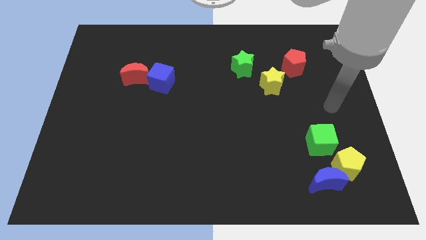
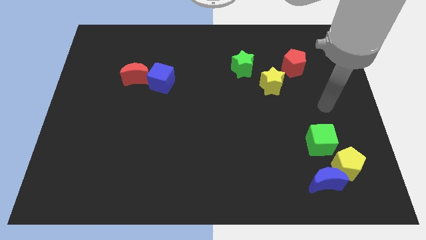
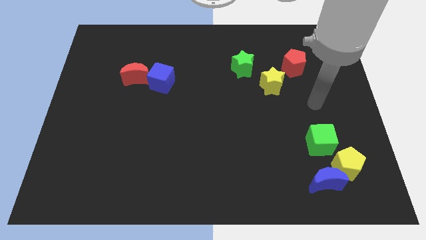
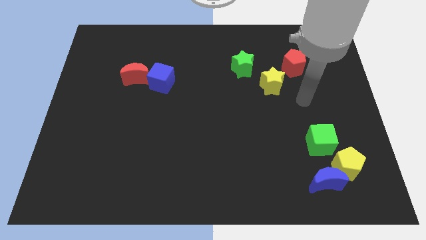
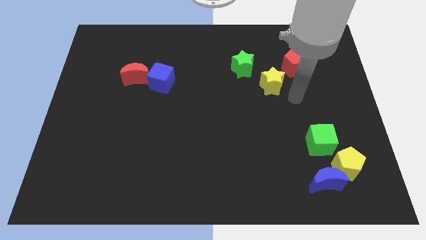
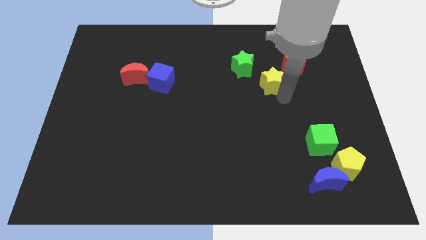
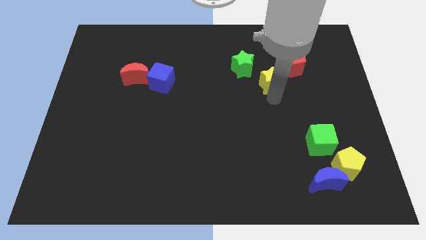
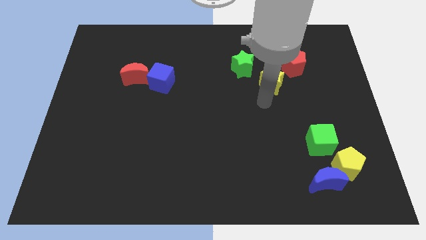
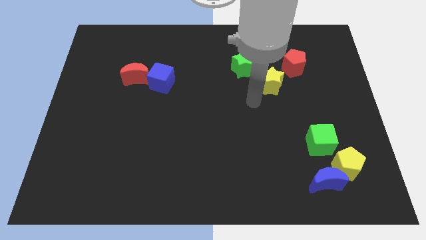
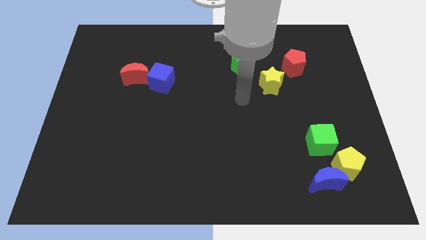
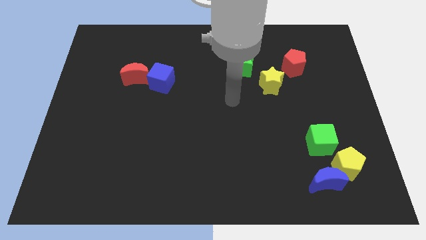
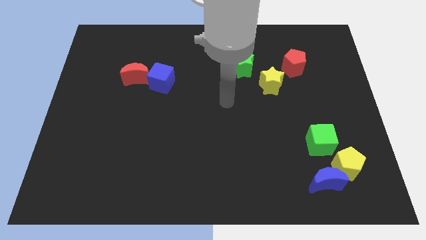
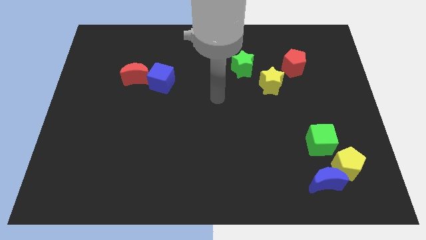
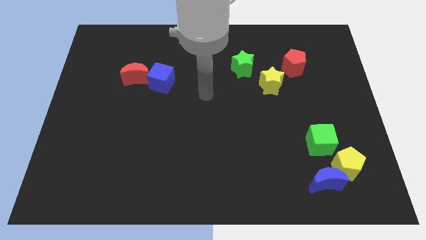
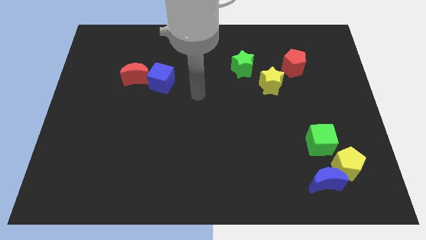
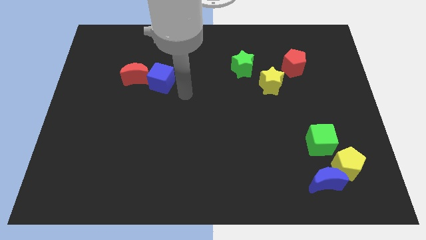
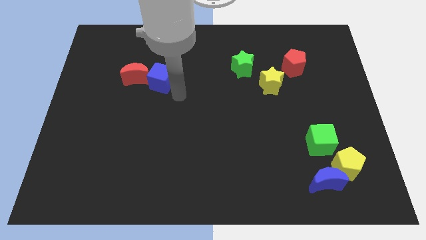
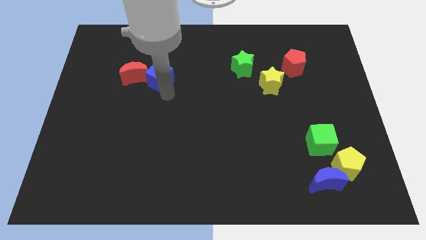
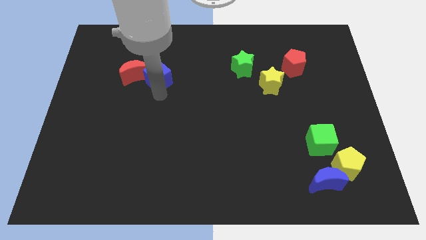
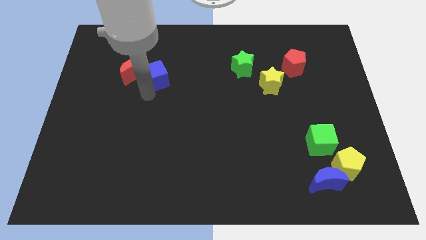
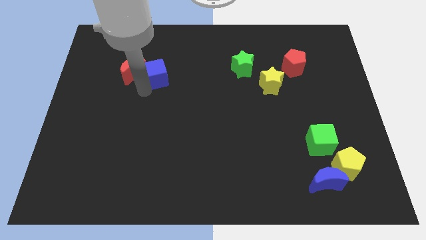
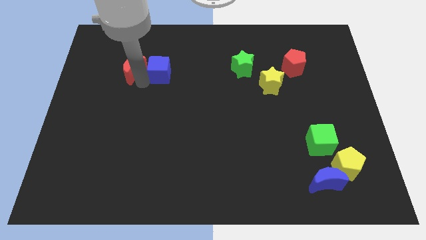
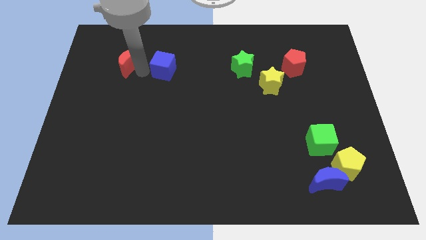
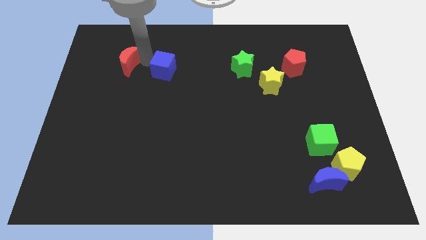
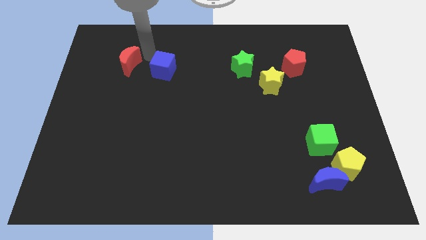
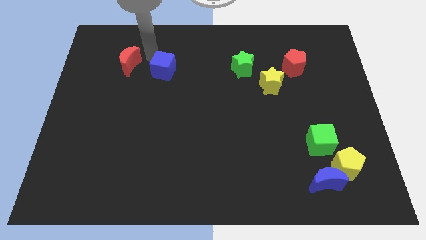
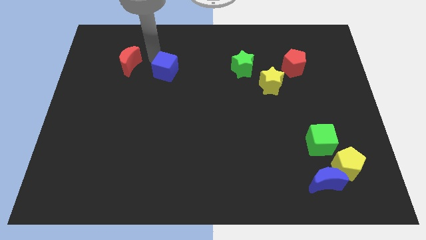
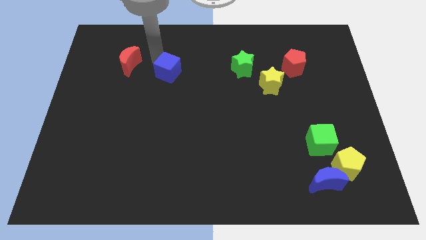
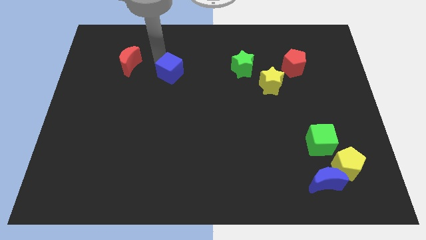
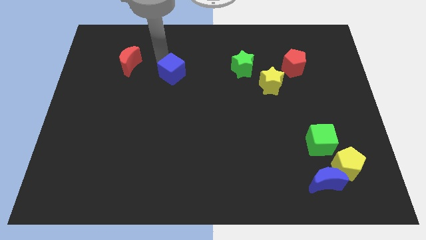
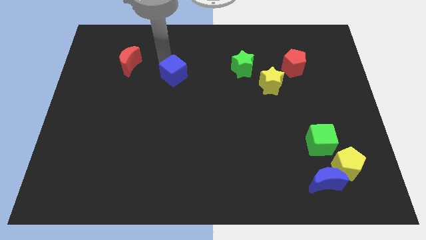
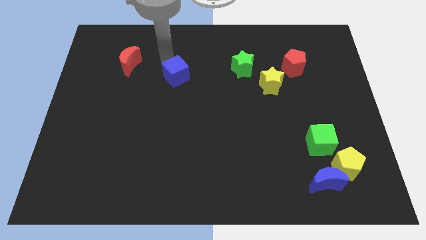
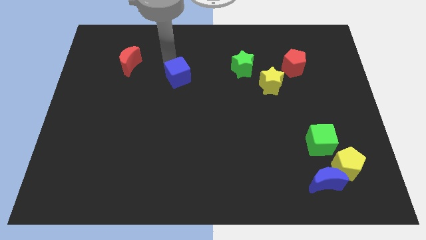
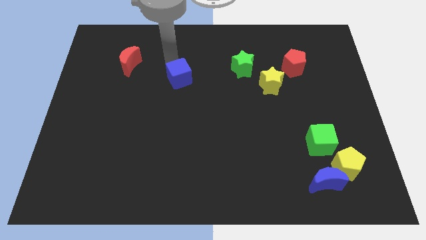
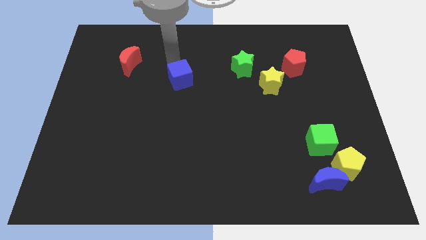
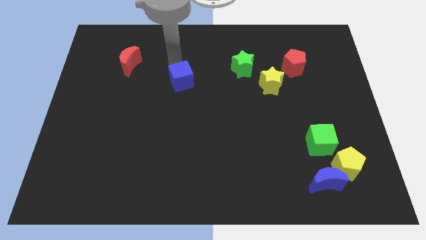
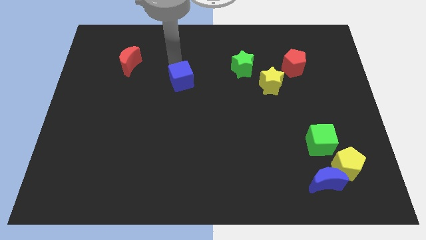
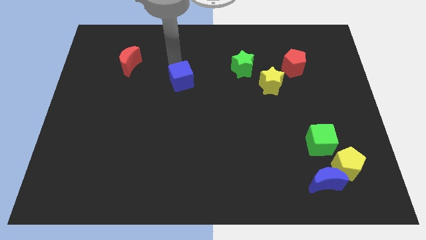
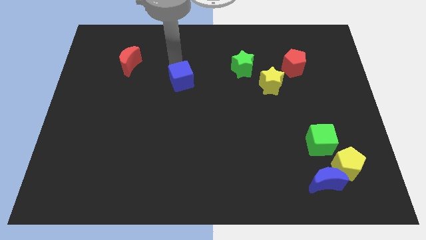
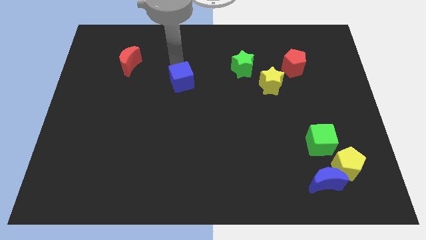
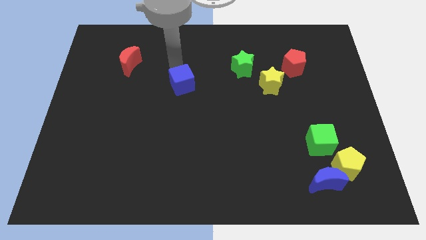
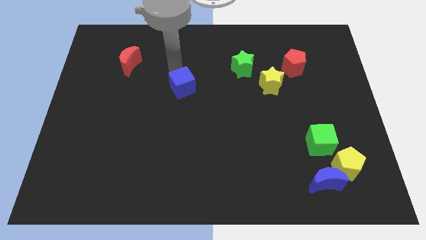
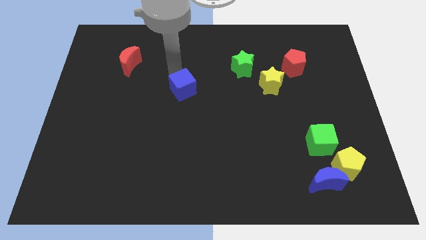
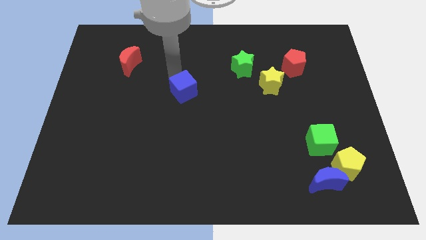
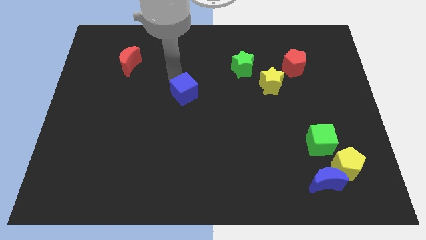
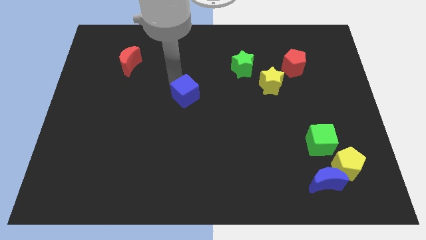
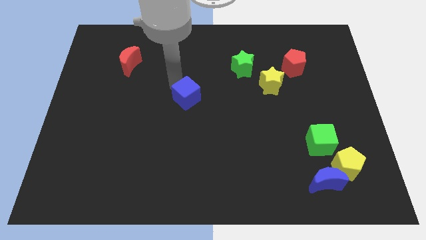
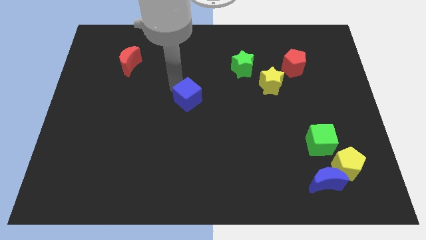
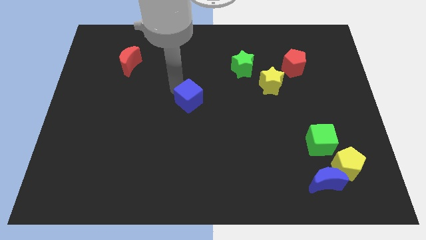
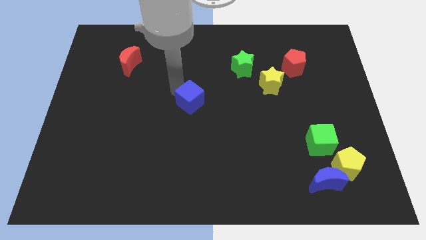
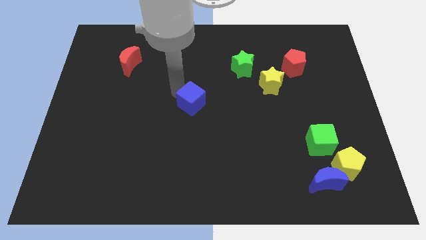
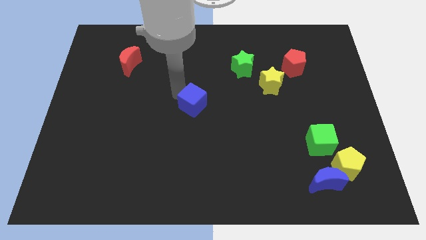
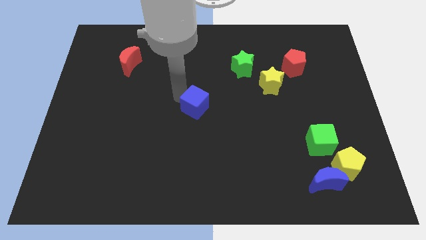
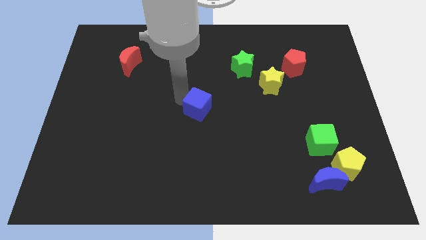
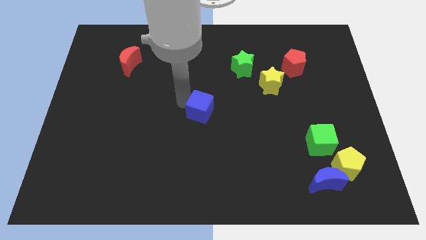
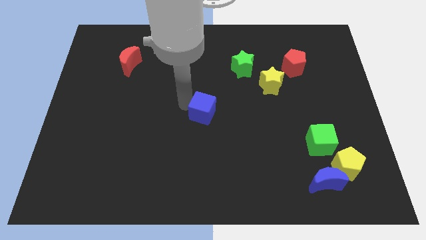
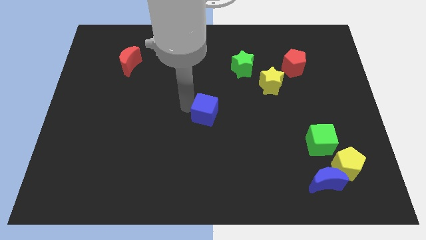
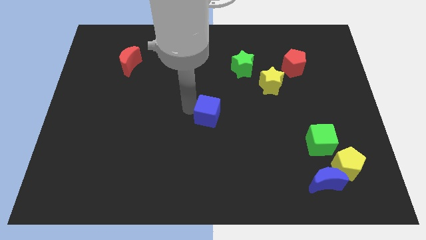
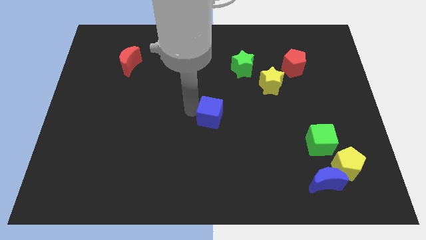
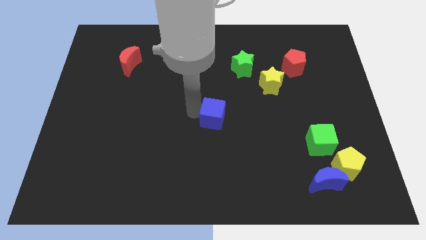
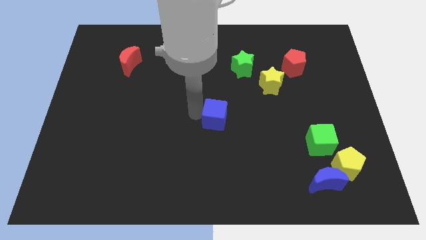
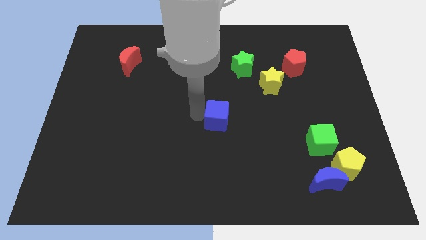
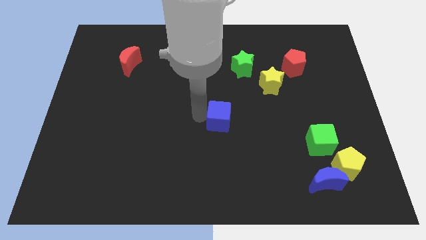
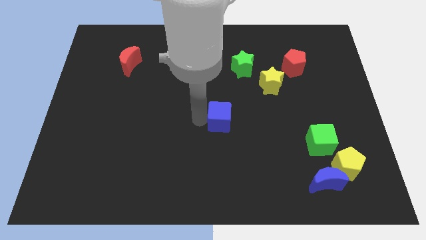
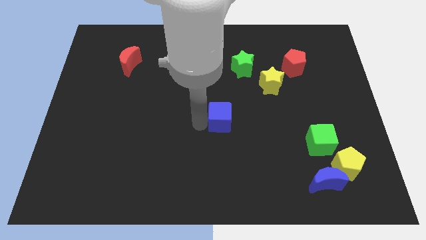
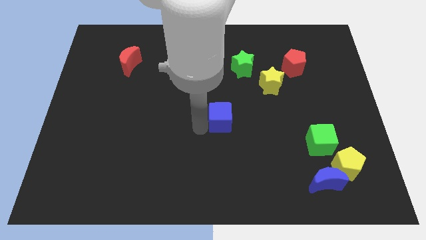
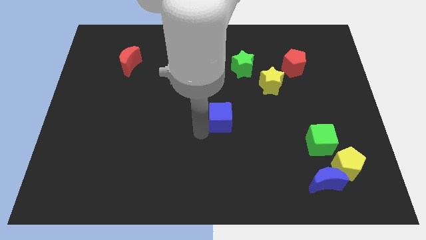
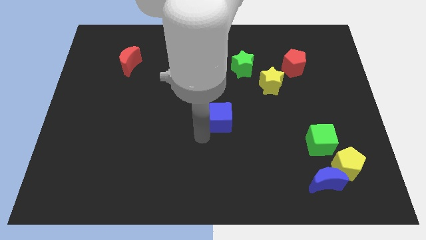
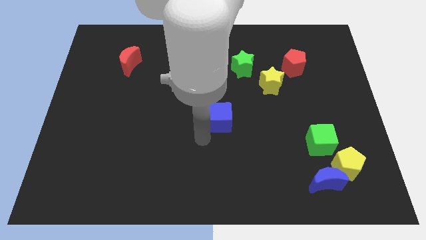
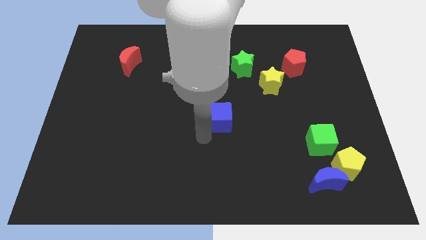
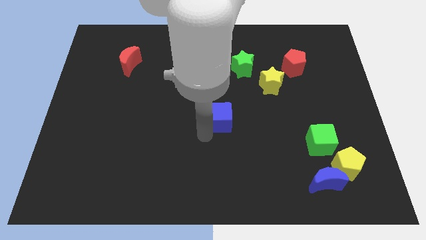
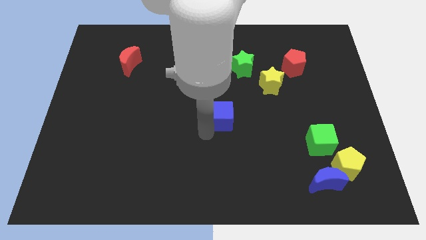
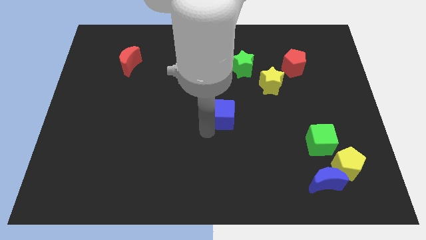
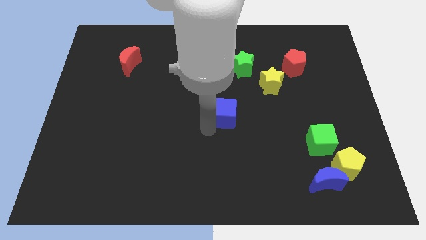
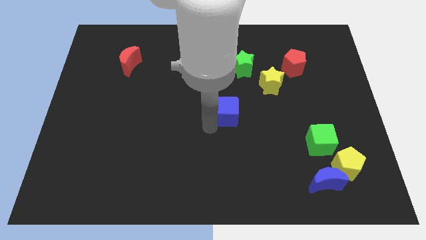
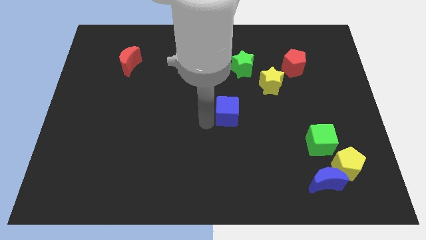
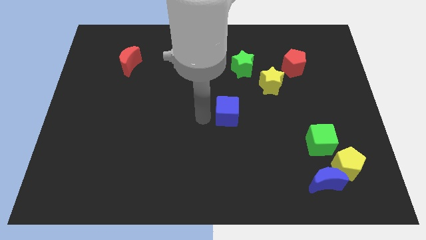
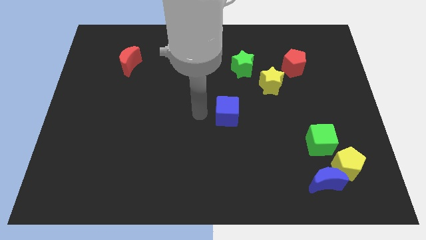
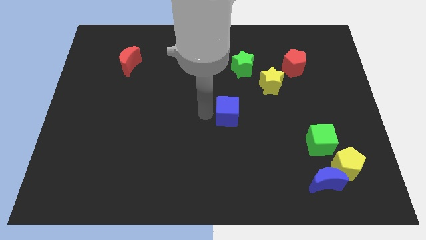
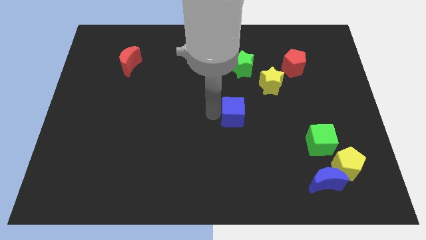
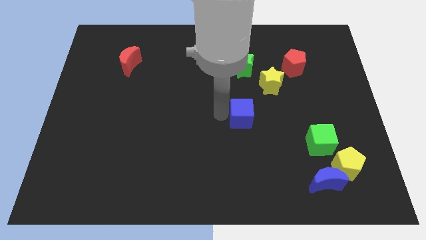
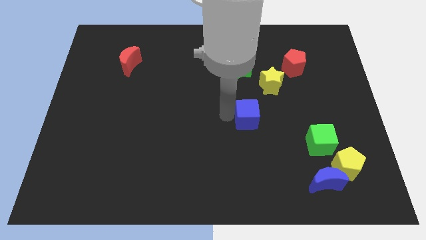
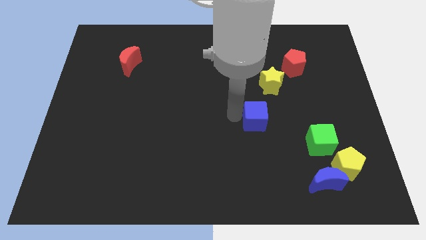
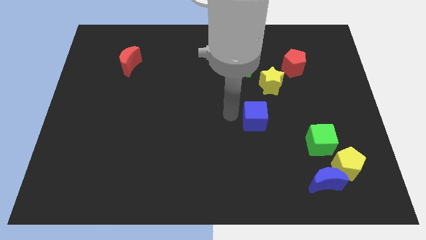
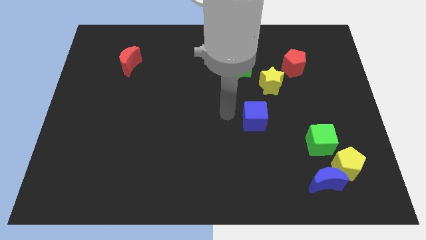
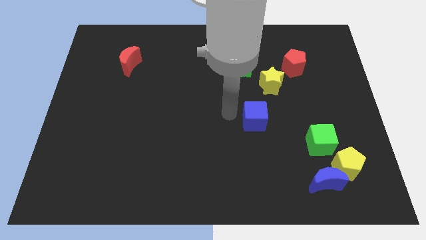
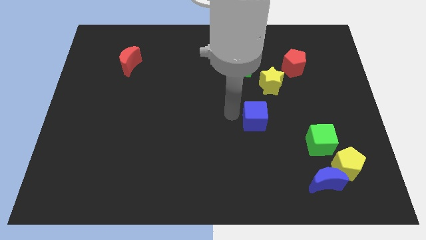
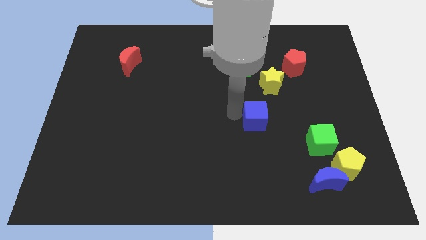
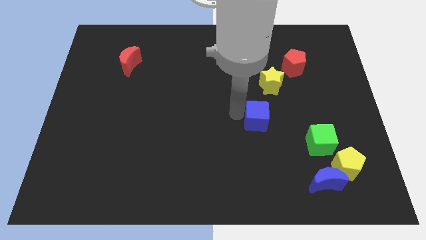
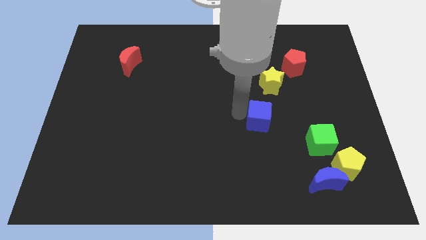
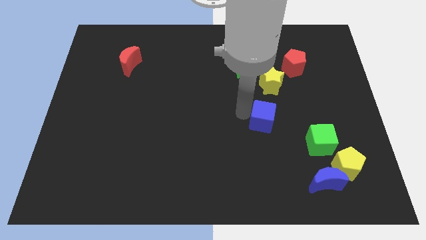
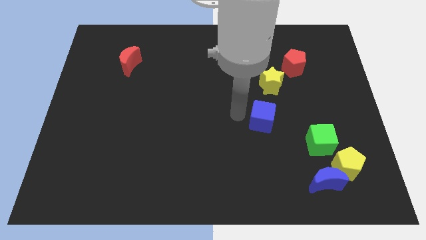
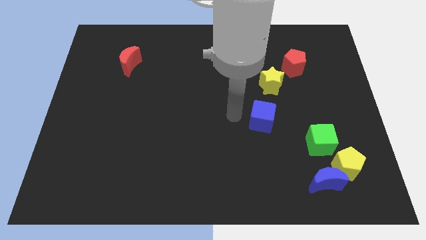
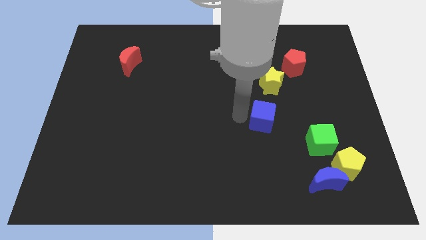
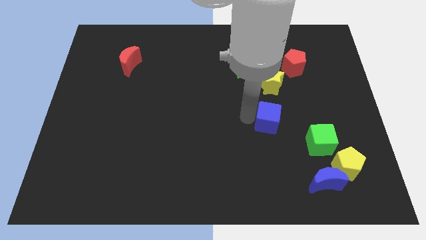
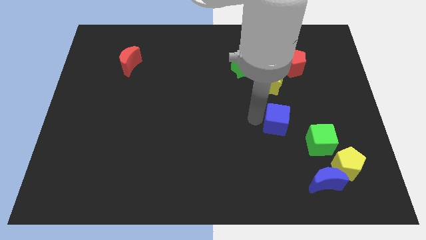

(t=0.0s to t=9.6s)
move the blue cube to the top left of the green cube
